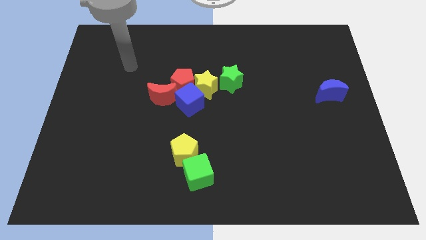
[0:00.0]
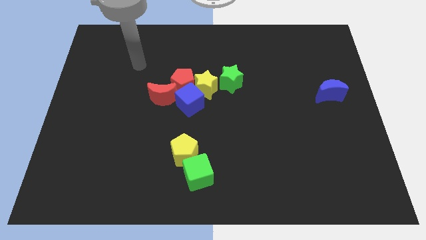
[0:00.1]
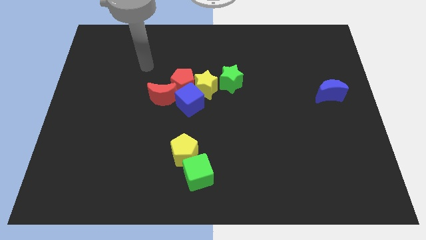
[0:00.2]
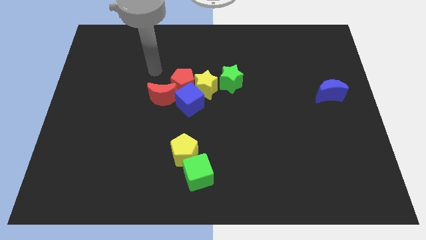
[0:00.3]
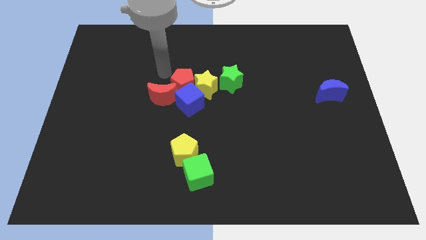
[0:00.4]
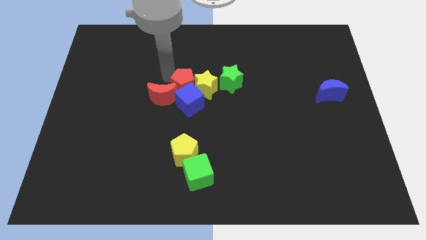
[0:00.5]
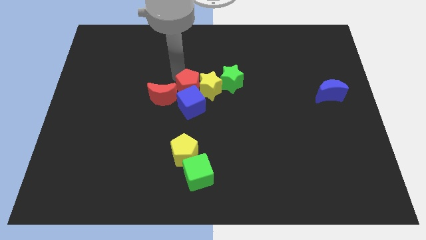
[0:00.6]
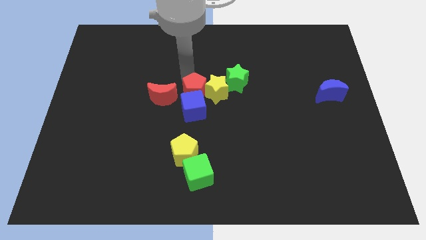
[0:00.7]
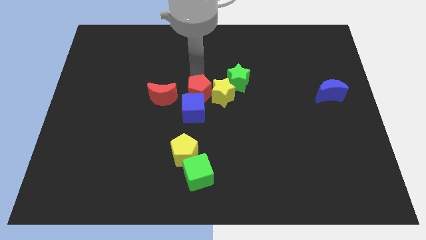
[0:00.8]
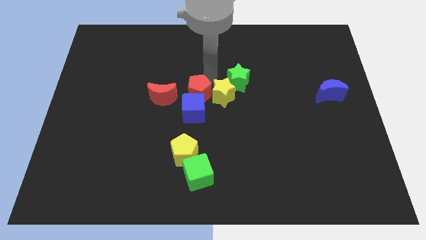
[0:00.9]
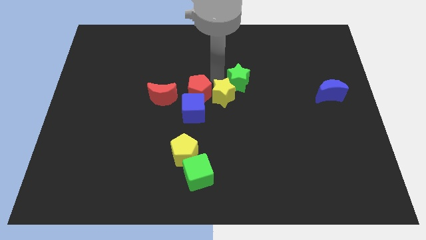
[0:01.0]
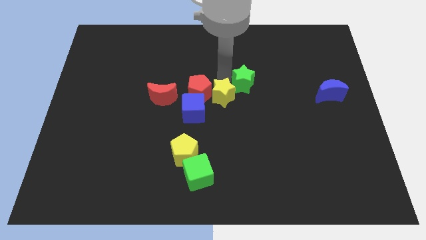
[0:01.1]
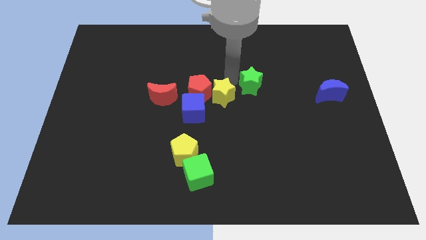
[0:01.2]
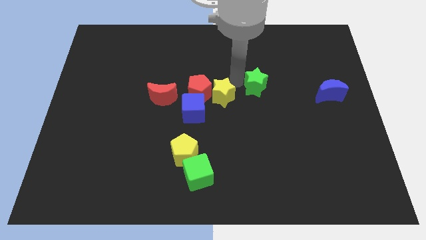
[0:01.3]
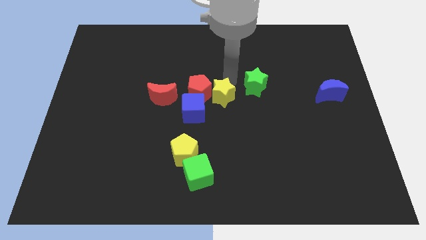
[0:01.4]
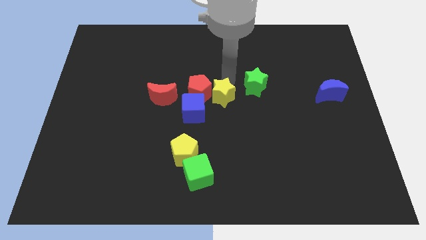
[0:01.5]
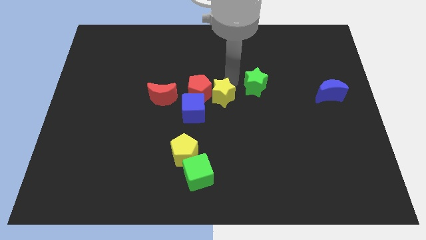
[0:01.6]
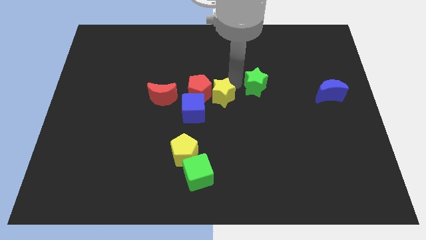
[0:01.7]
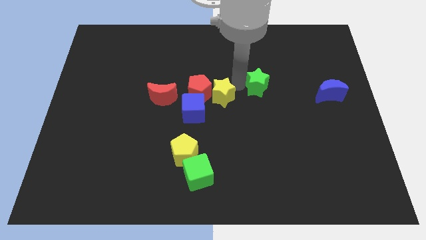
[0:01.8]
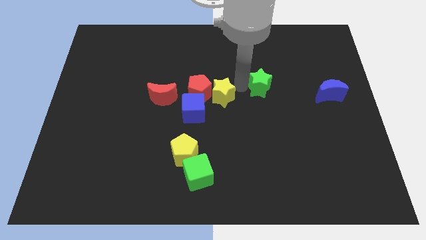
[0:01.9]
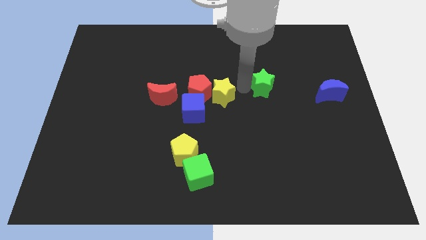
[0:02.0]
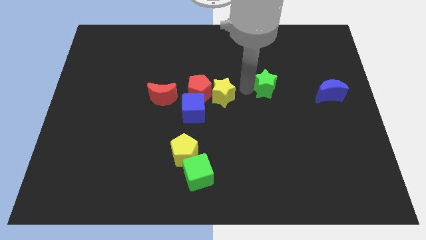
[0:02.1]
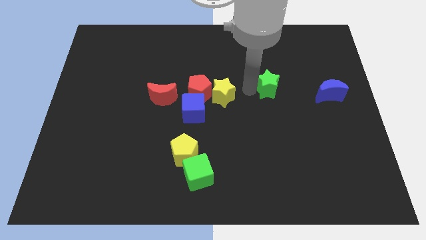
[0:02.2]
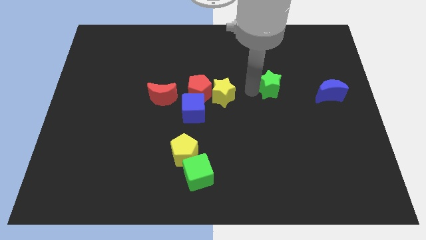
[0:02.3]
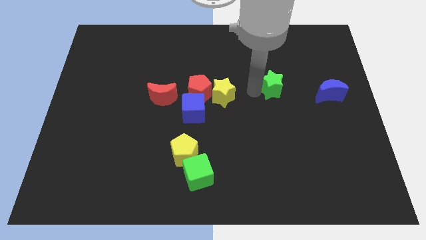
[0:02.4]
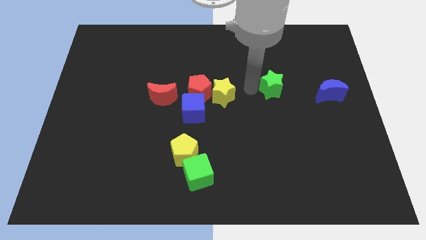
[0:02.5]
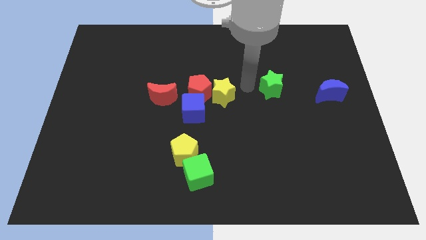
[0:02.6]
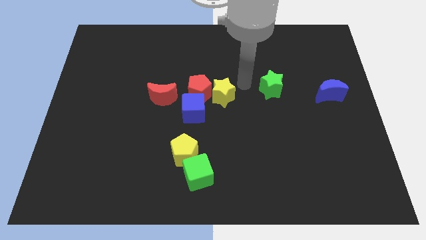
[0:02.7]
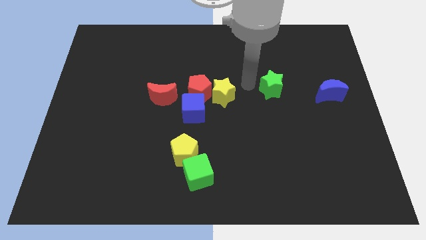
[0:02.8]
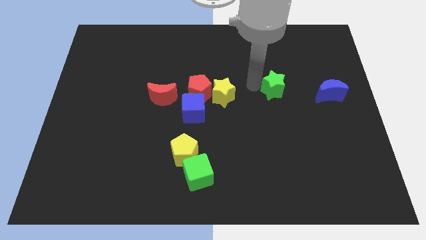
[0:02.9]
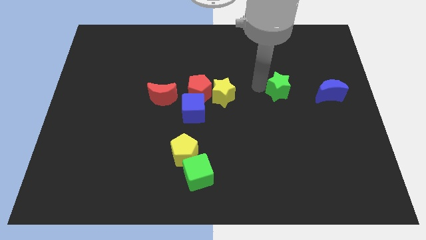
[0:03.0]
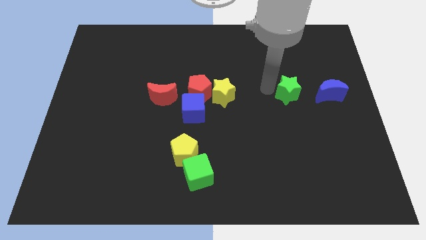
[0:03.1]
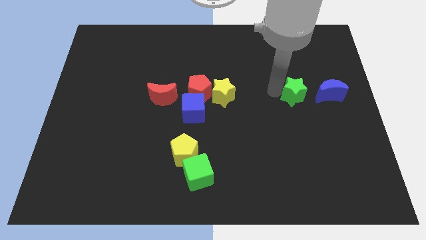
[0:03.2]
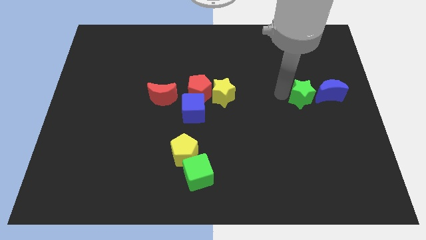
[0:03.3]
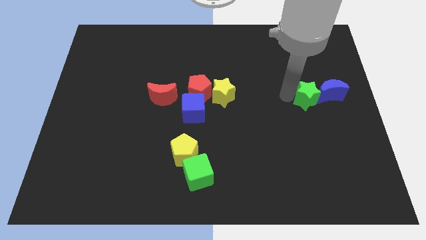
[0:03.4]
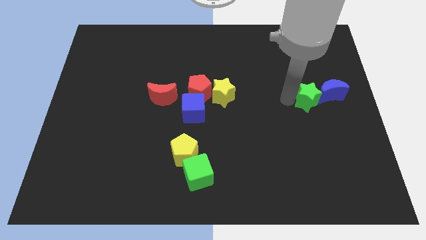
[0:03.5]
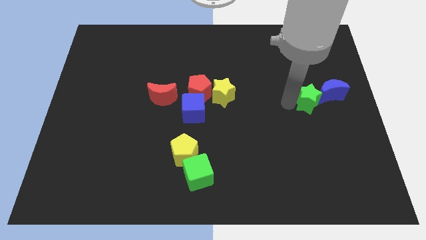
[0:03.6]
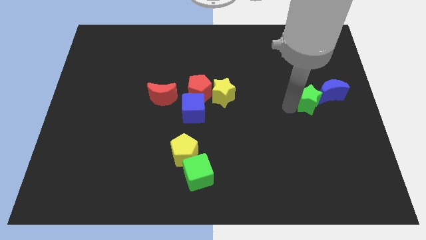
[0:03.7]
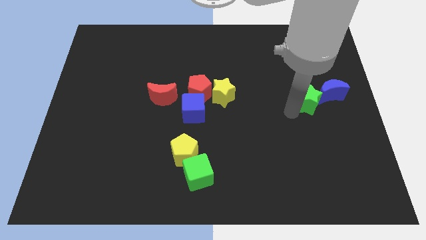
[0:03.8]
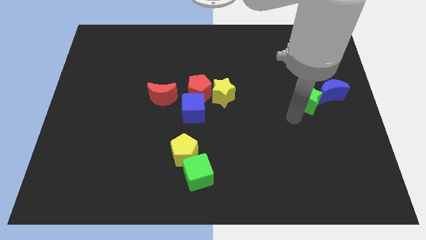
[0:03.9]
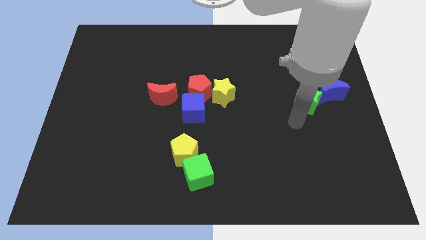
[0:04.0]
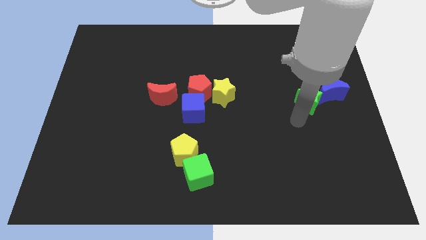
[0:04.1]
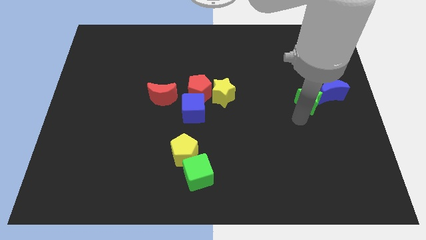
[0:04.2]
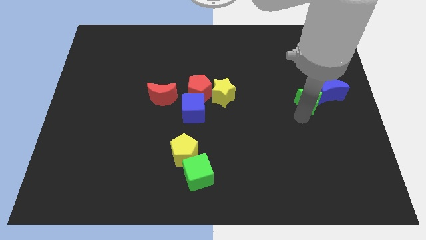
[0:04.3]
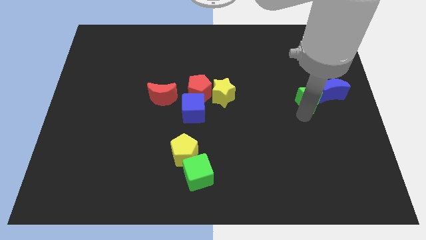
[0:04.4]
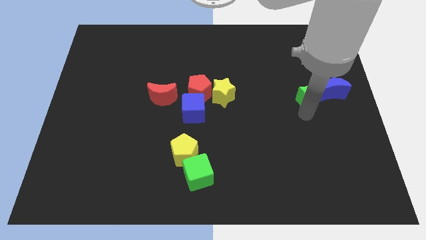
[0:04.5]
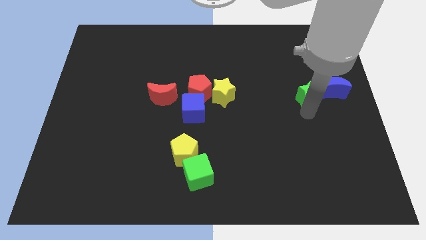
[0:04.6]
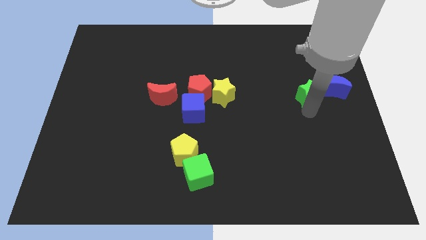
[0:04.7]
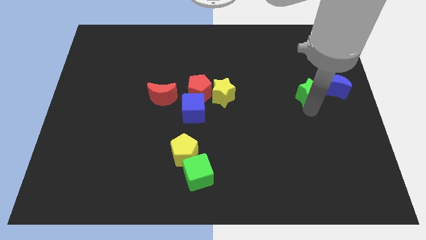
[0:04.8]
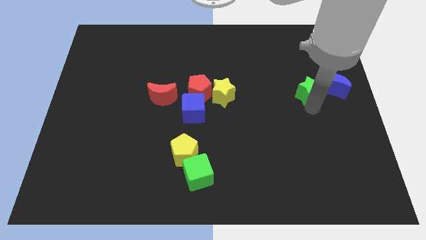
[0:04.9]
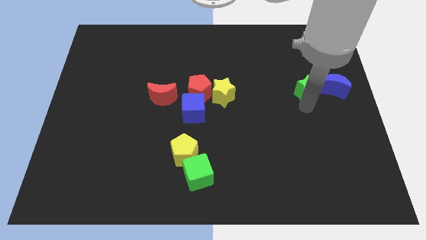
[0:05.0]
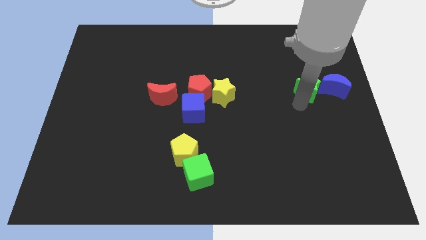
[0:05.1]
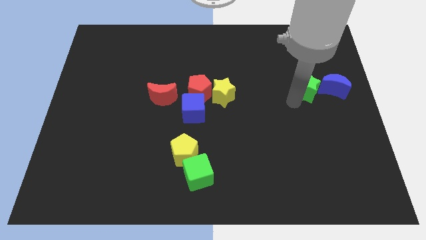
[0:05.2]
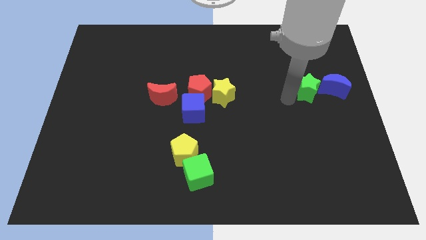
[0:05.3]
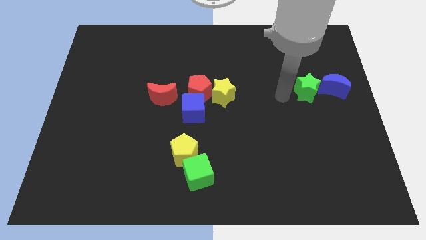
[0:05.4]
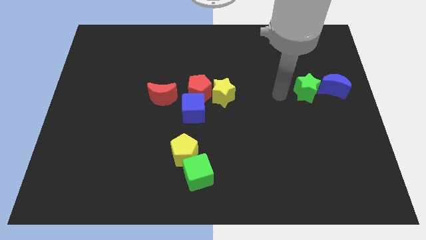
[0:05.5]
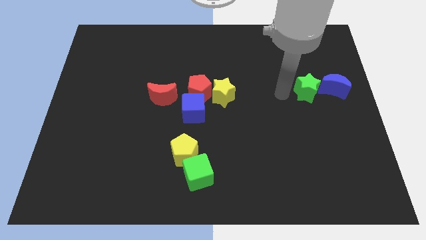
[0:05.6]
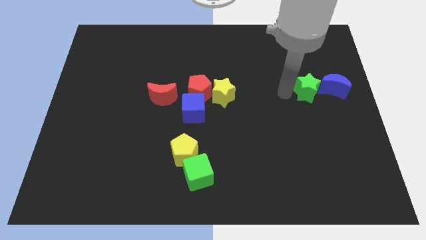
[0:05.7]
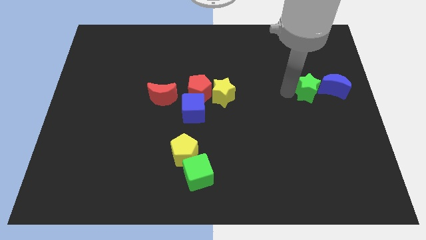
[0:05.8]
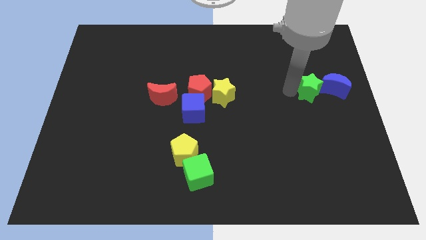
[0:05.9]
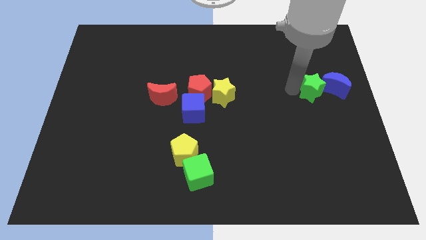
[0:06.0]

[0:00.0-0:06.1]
slide the green star towards the blue moon
